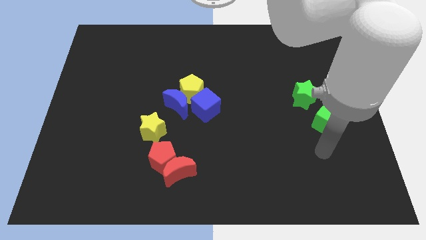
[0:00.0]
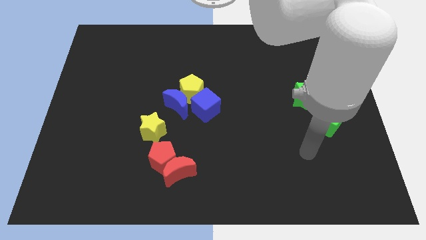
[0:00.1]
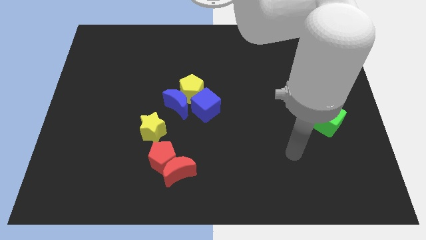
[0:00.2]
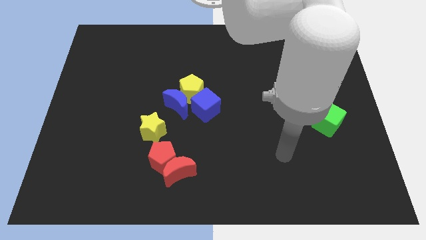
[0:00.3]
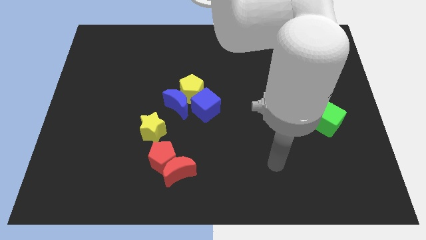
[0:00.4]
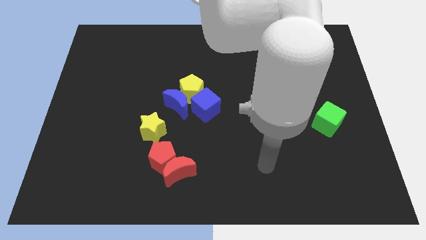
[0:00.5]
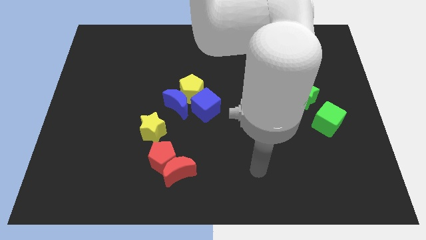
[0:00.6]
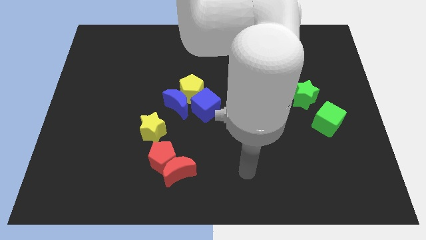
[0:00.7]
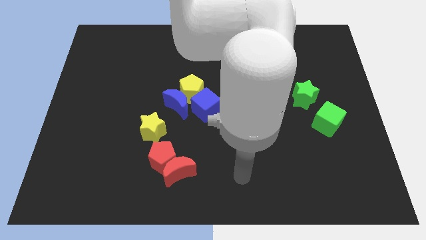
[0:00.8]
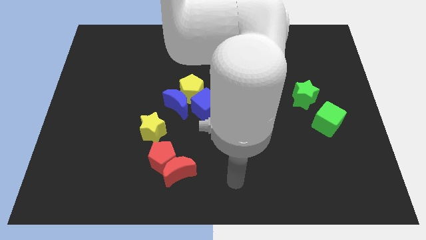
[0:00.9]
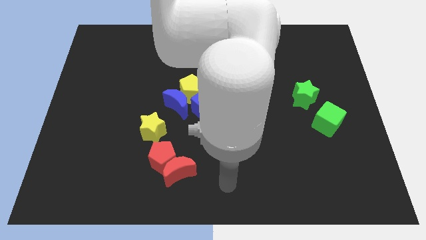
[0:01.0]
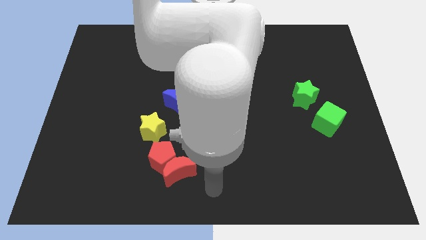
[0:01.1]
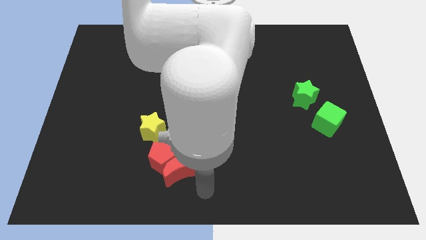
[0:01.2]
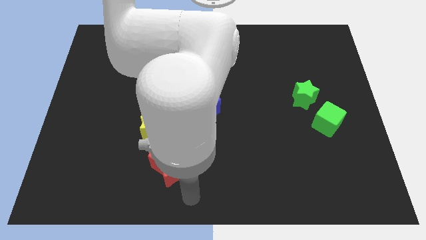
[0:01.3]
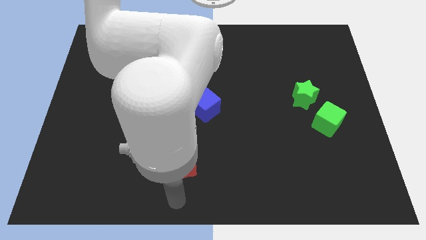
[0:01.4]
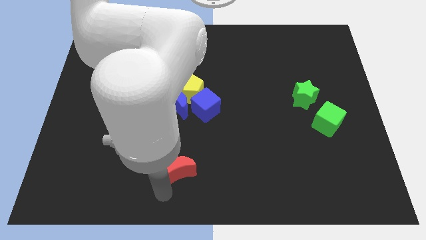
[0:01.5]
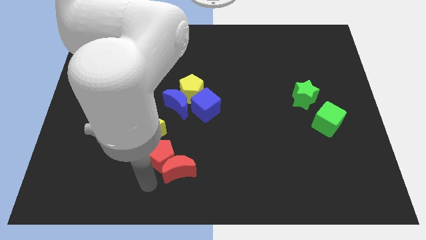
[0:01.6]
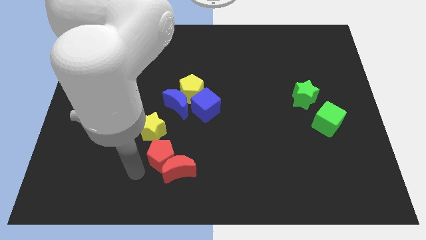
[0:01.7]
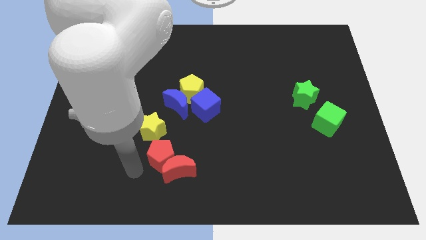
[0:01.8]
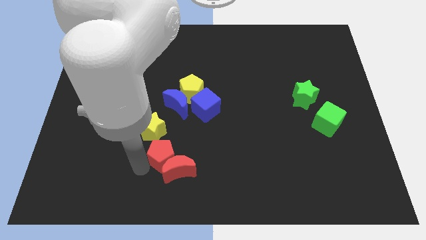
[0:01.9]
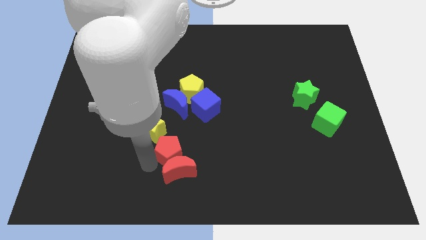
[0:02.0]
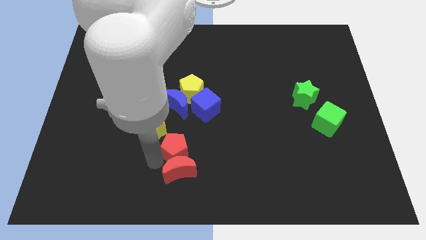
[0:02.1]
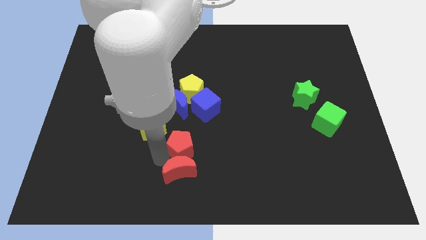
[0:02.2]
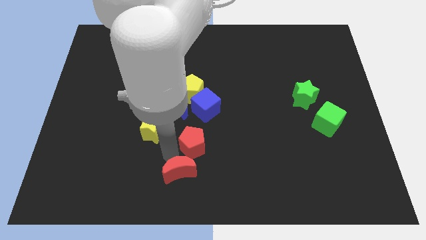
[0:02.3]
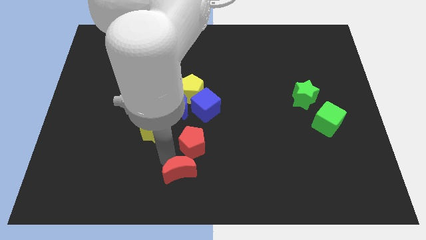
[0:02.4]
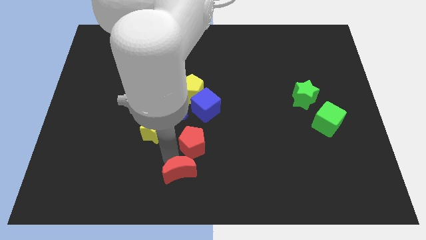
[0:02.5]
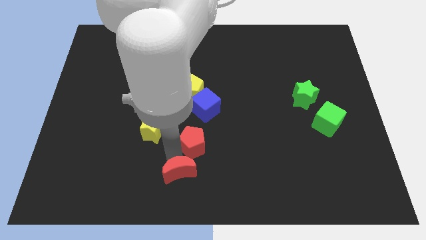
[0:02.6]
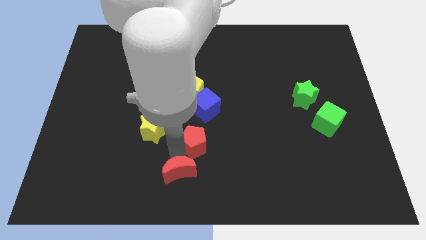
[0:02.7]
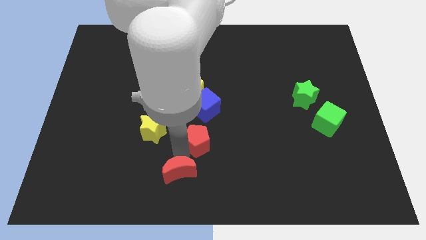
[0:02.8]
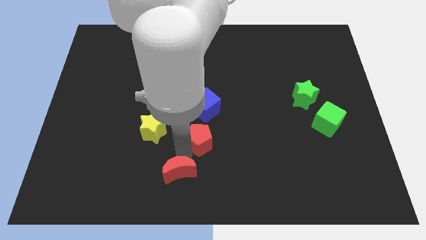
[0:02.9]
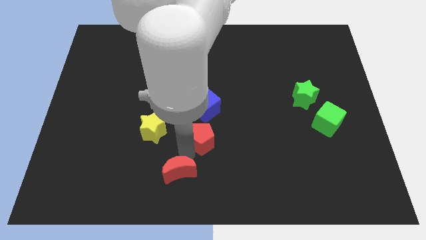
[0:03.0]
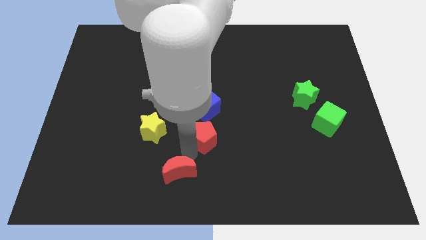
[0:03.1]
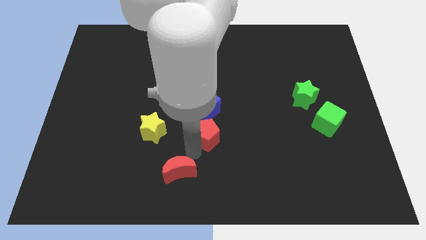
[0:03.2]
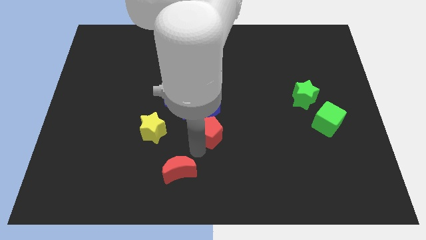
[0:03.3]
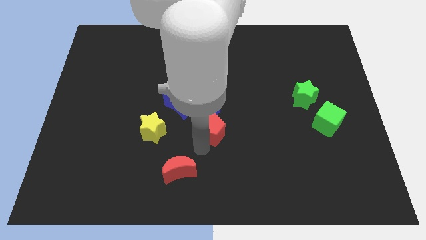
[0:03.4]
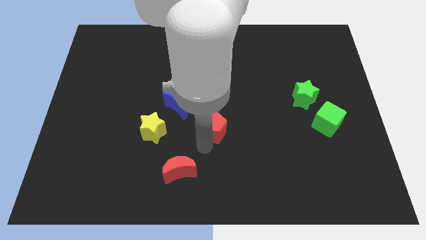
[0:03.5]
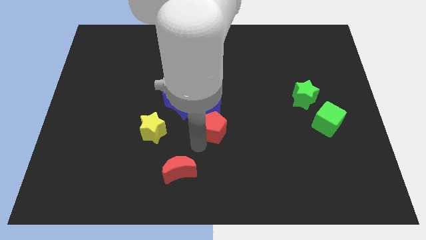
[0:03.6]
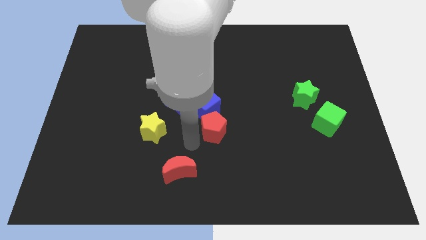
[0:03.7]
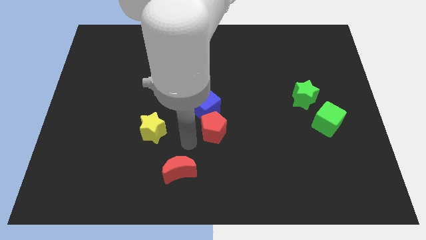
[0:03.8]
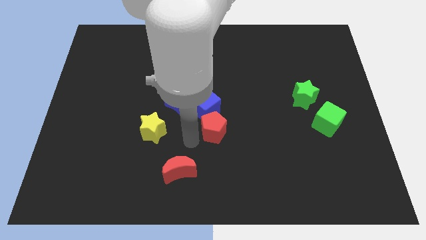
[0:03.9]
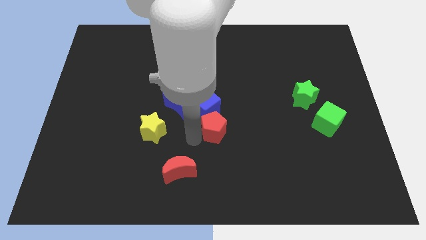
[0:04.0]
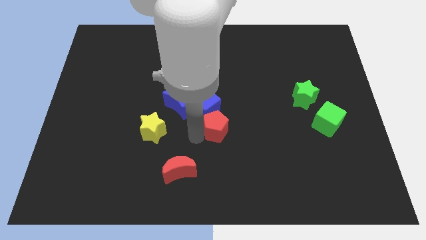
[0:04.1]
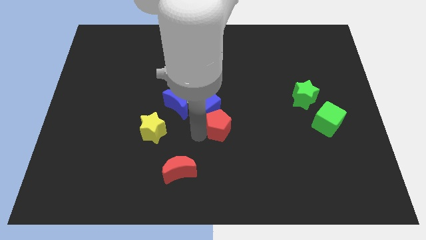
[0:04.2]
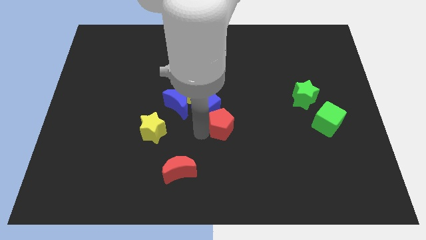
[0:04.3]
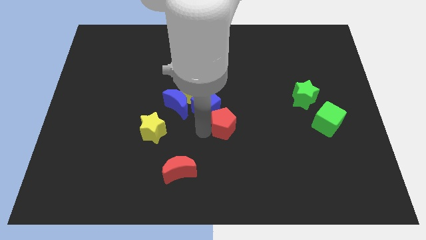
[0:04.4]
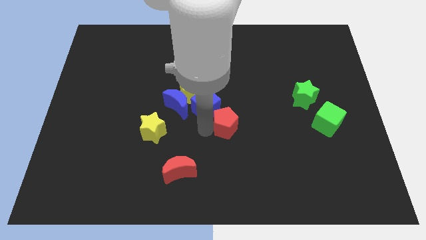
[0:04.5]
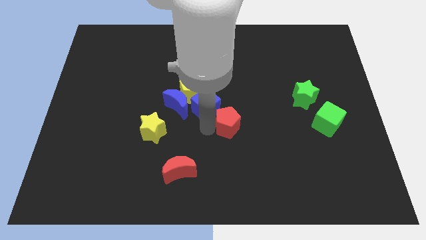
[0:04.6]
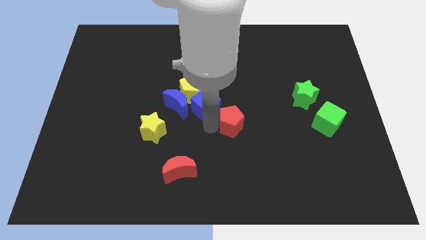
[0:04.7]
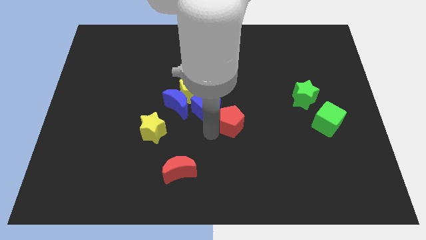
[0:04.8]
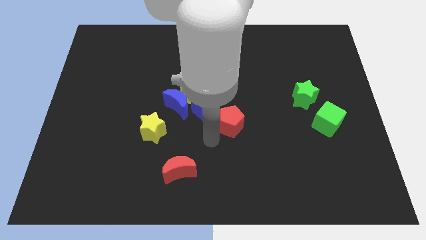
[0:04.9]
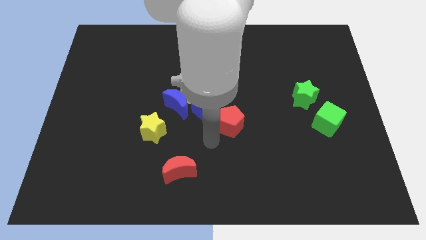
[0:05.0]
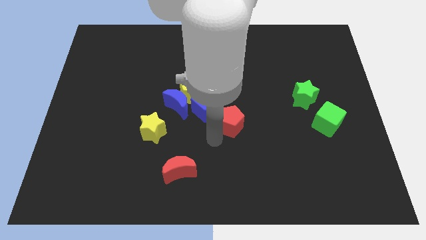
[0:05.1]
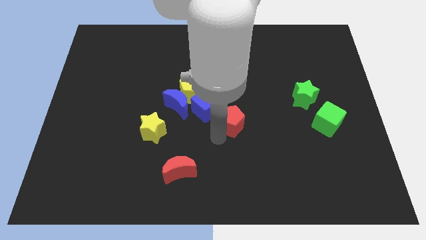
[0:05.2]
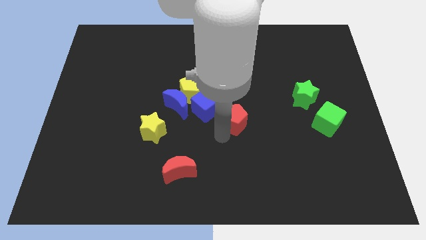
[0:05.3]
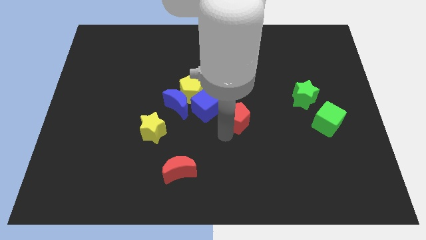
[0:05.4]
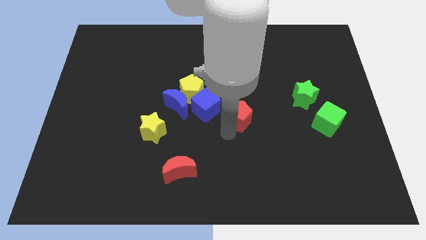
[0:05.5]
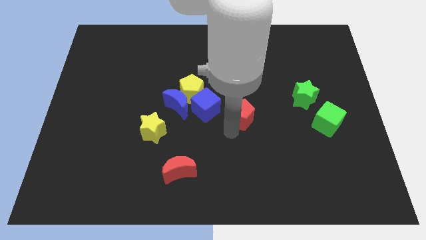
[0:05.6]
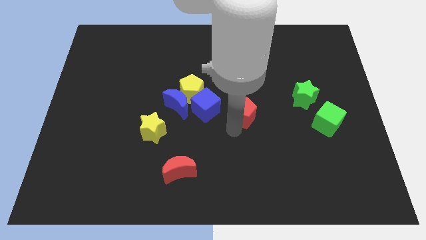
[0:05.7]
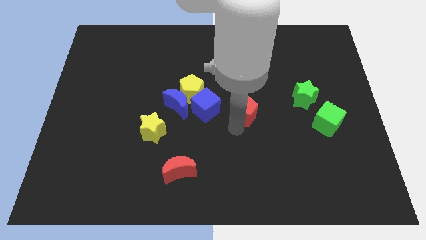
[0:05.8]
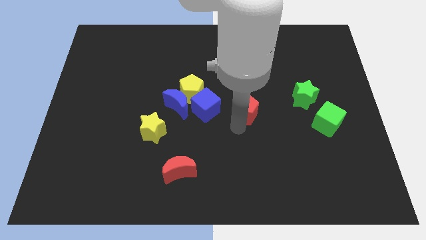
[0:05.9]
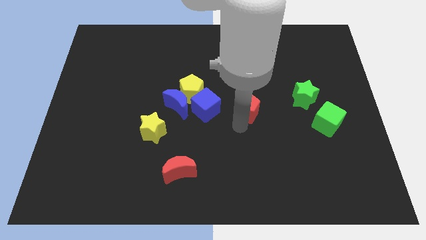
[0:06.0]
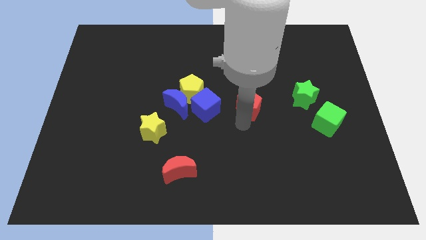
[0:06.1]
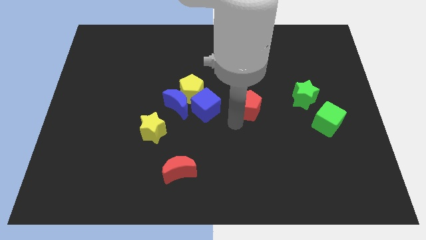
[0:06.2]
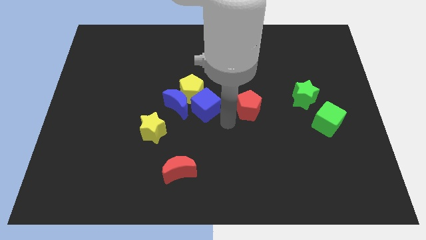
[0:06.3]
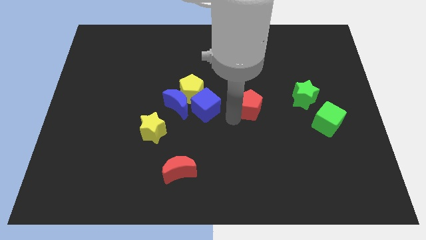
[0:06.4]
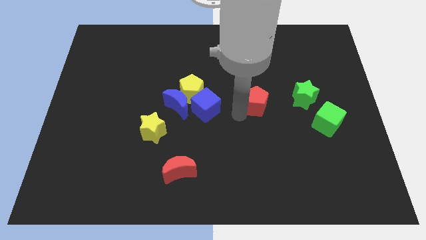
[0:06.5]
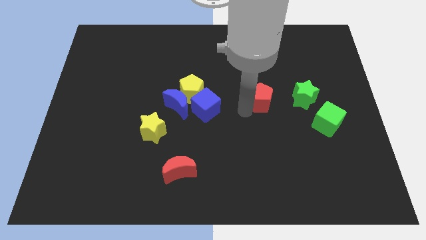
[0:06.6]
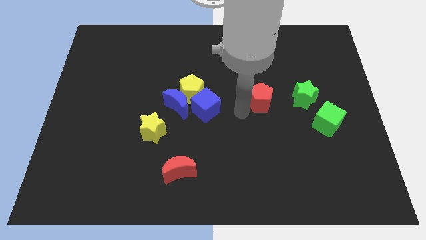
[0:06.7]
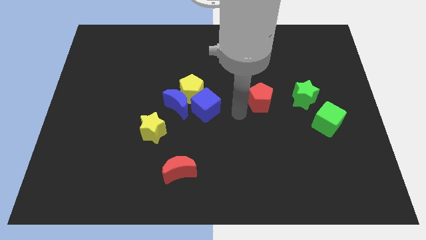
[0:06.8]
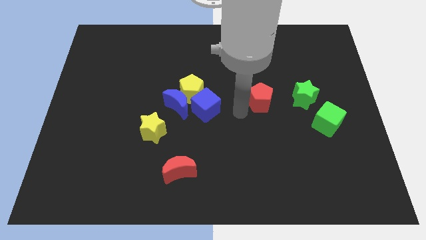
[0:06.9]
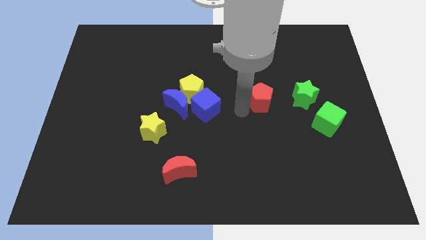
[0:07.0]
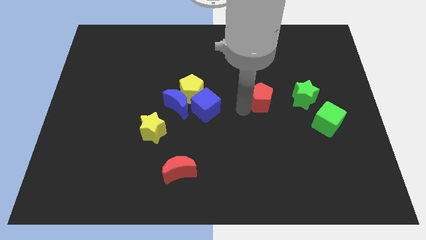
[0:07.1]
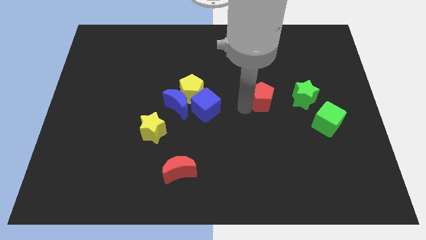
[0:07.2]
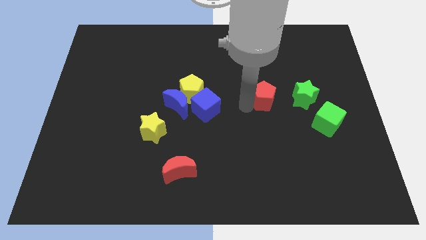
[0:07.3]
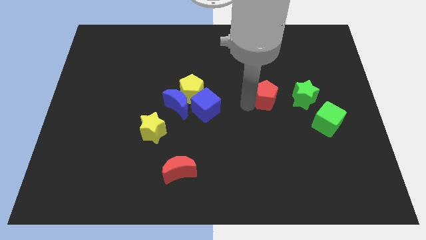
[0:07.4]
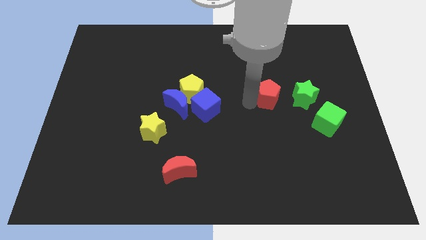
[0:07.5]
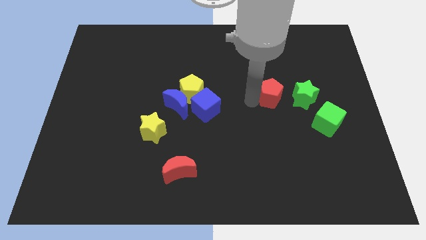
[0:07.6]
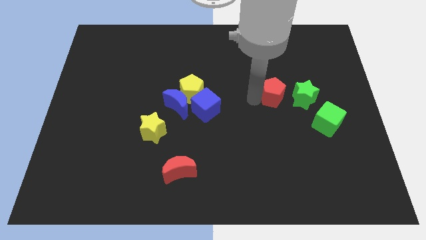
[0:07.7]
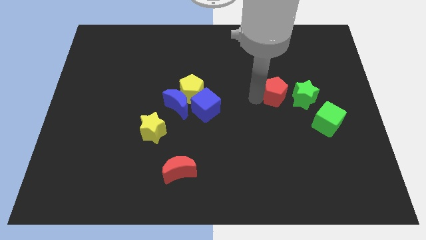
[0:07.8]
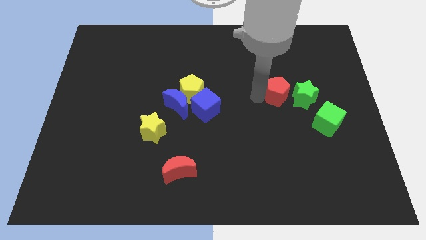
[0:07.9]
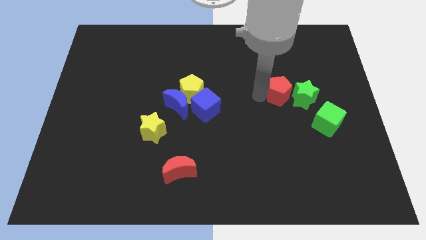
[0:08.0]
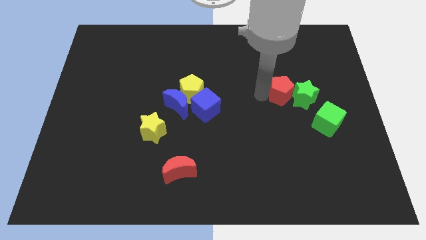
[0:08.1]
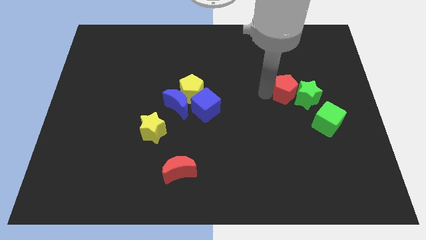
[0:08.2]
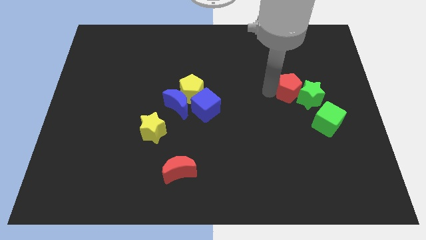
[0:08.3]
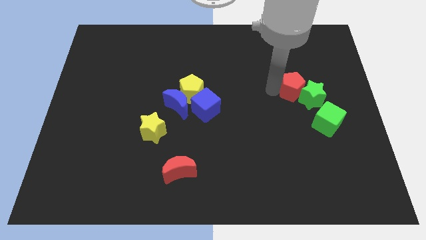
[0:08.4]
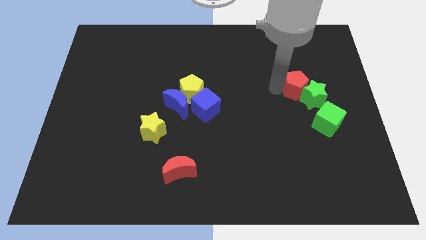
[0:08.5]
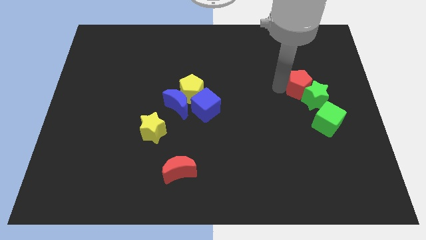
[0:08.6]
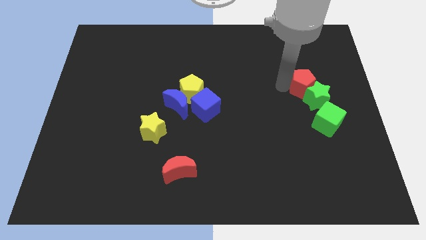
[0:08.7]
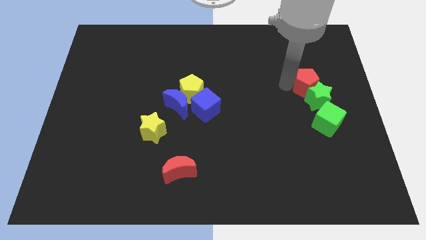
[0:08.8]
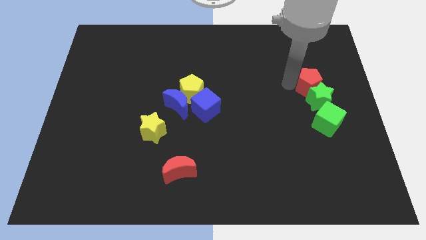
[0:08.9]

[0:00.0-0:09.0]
move the red pentagon to the top right of the green star
